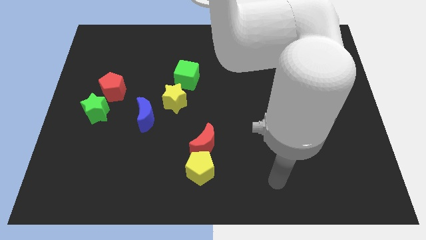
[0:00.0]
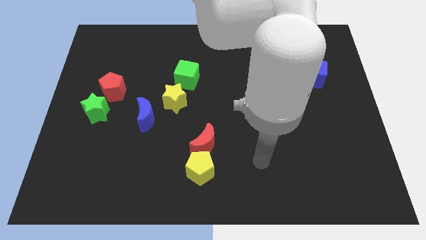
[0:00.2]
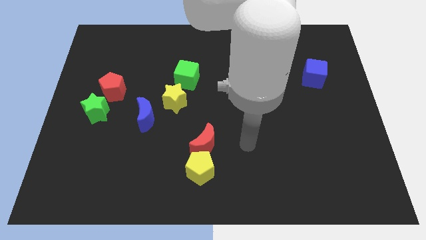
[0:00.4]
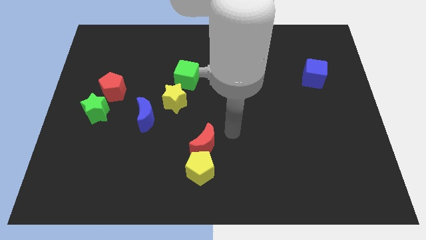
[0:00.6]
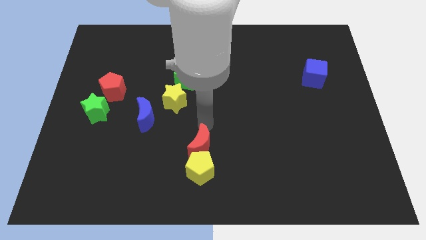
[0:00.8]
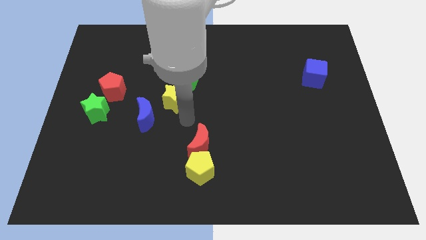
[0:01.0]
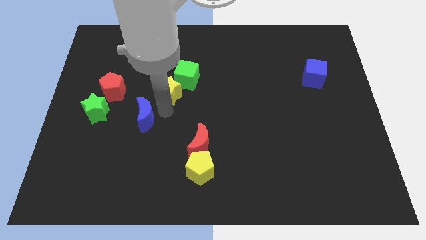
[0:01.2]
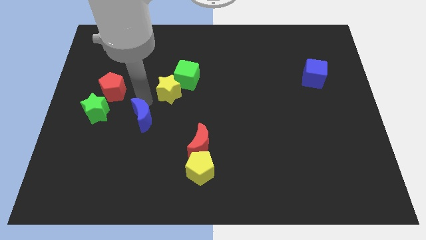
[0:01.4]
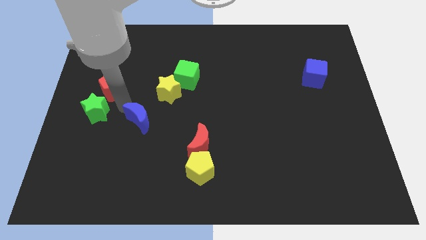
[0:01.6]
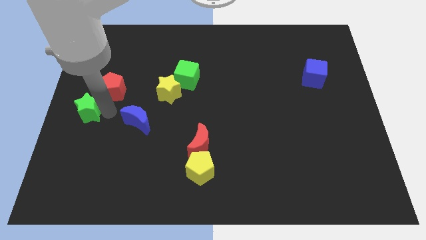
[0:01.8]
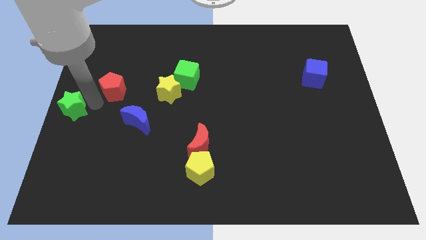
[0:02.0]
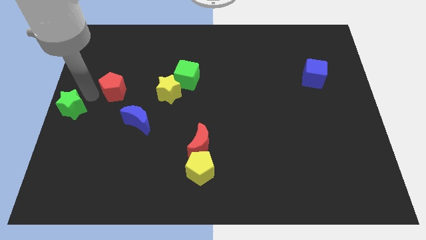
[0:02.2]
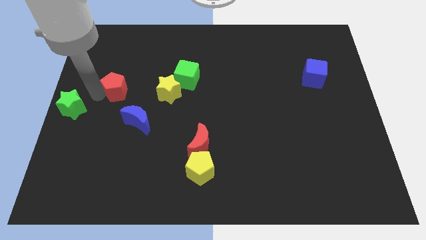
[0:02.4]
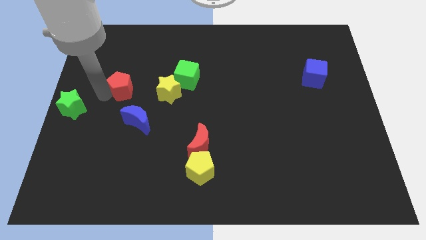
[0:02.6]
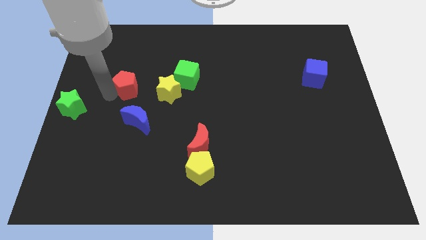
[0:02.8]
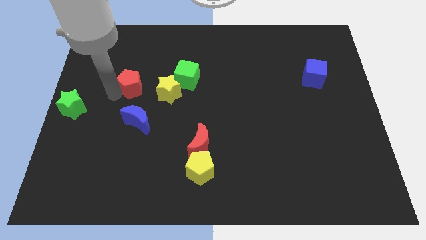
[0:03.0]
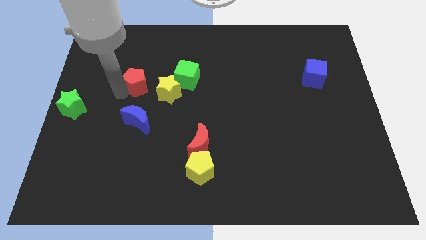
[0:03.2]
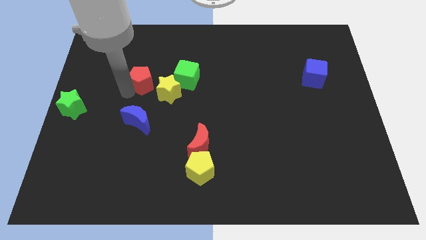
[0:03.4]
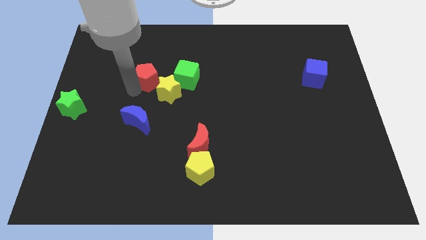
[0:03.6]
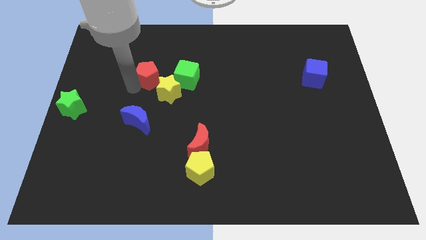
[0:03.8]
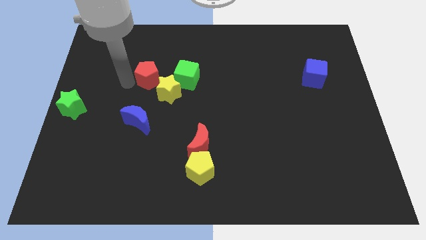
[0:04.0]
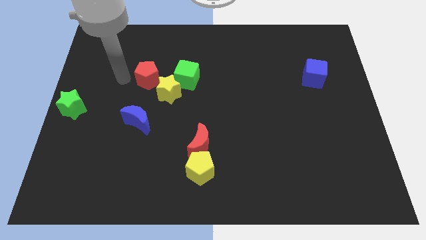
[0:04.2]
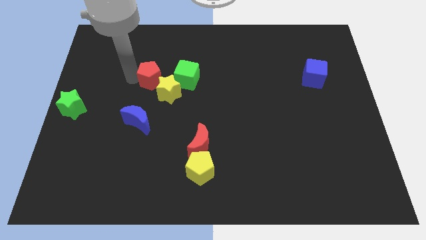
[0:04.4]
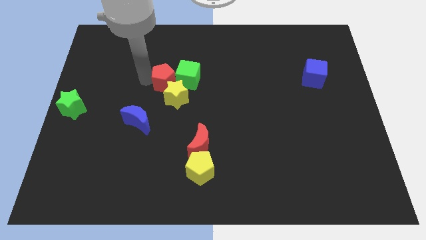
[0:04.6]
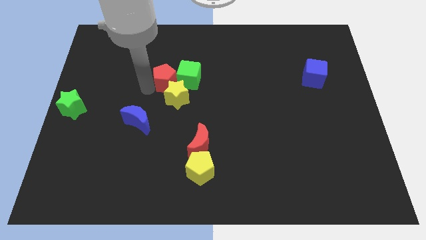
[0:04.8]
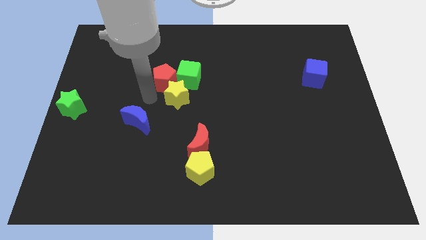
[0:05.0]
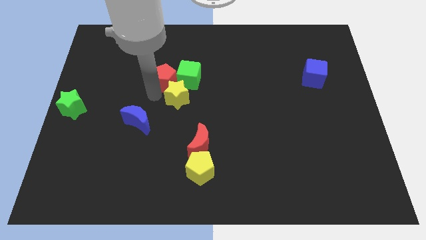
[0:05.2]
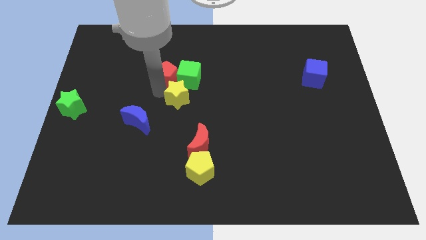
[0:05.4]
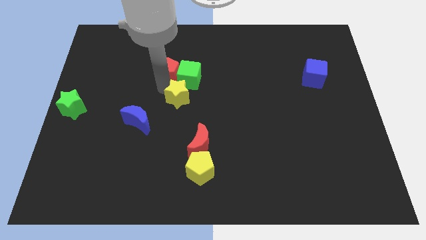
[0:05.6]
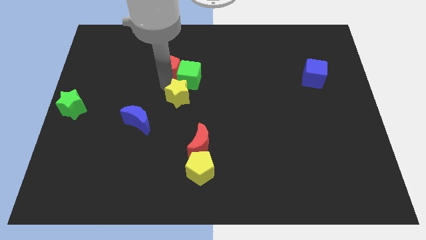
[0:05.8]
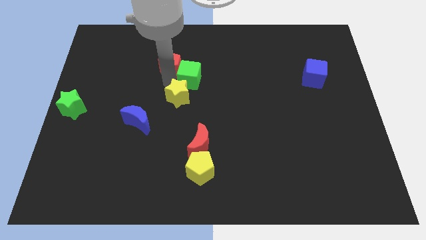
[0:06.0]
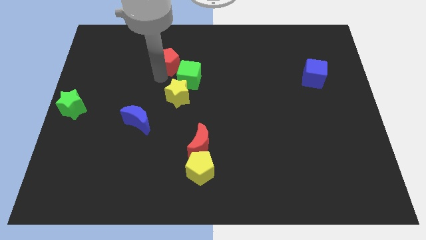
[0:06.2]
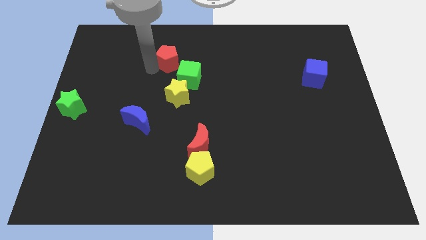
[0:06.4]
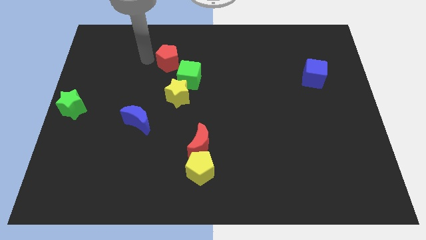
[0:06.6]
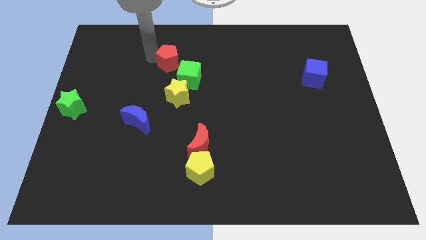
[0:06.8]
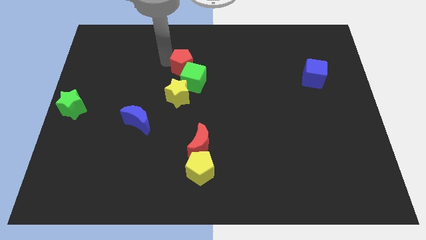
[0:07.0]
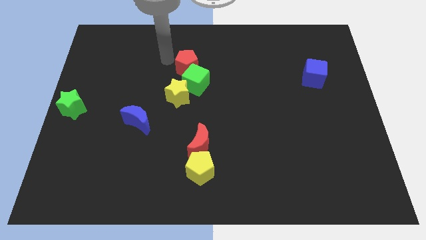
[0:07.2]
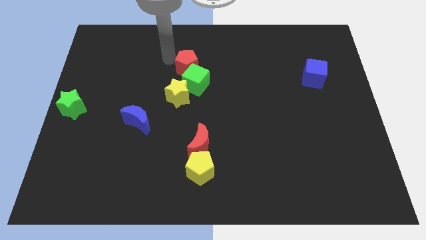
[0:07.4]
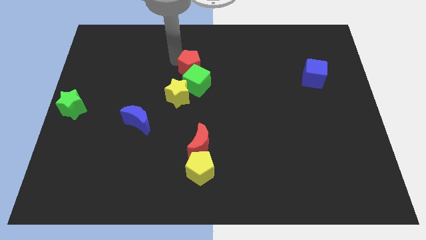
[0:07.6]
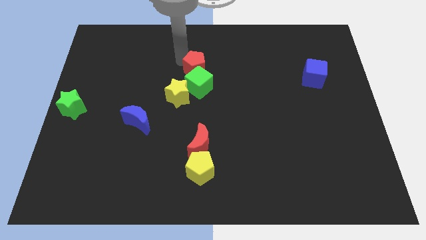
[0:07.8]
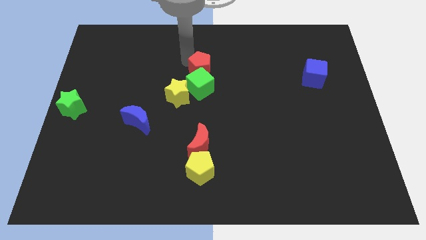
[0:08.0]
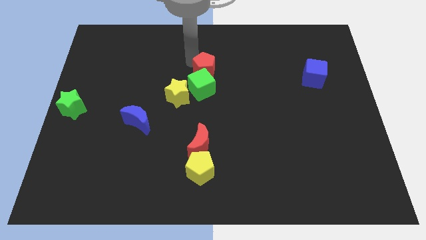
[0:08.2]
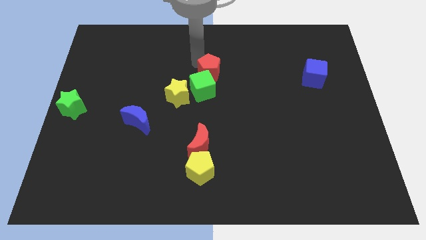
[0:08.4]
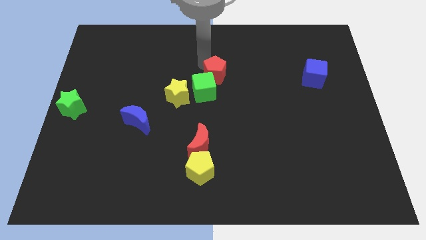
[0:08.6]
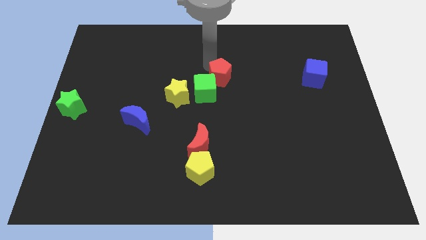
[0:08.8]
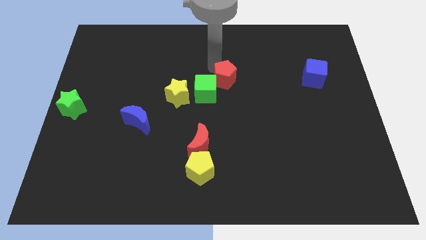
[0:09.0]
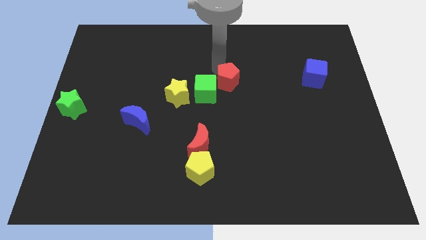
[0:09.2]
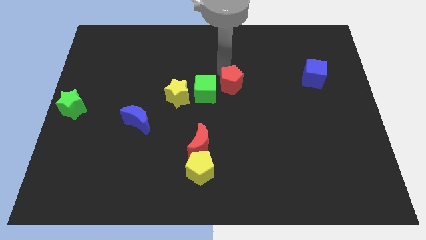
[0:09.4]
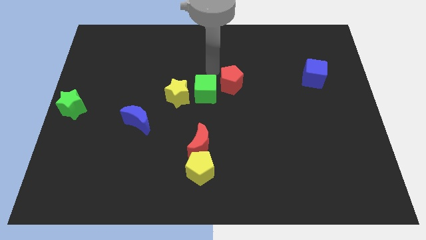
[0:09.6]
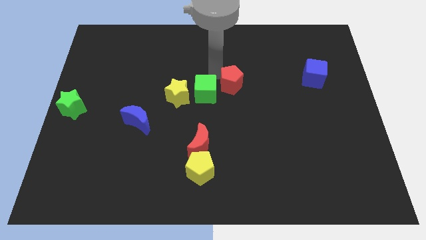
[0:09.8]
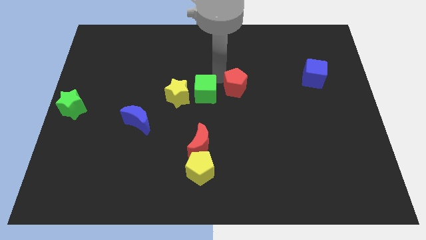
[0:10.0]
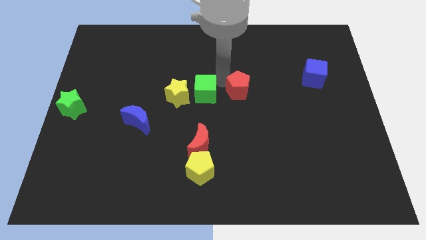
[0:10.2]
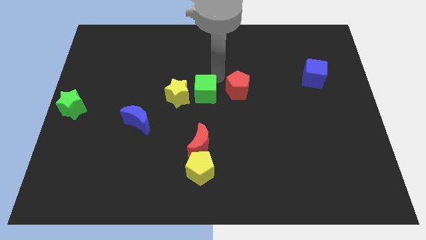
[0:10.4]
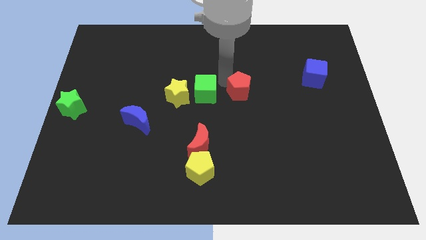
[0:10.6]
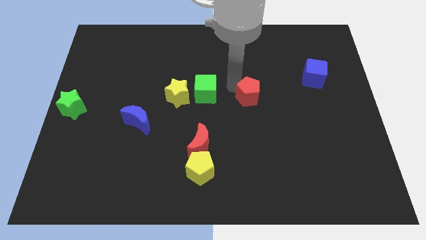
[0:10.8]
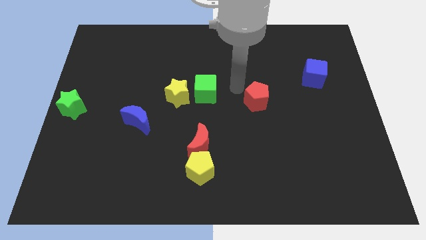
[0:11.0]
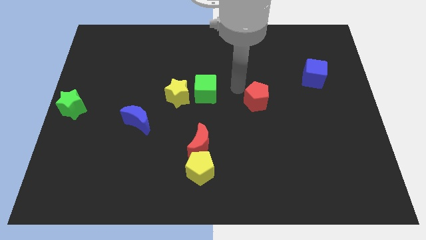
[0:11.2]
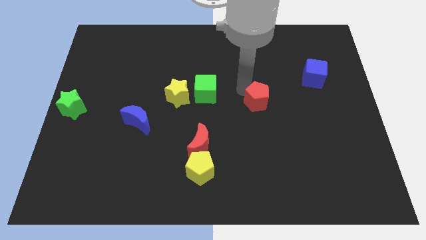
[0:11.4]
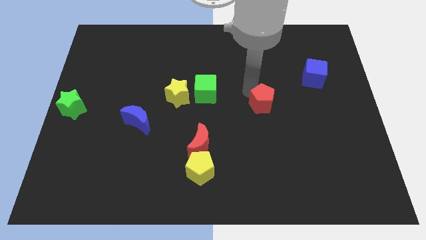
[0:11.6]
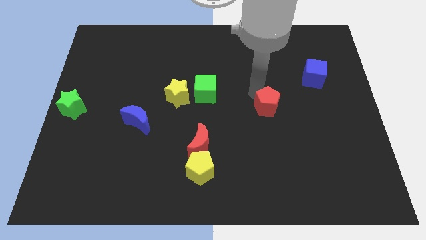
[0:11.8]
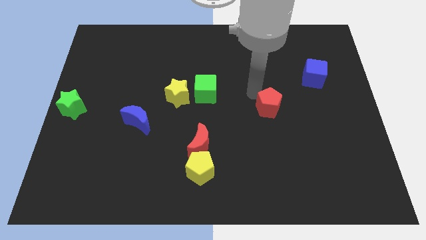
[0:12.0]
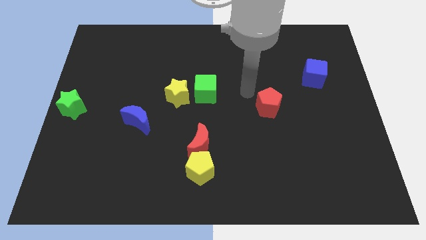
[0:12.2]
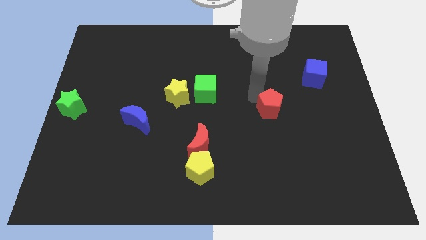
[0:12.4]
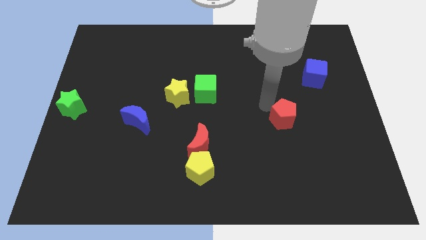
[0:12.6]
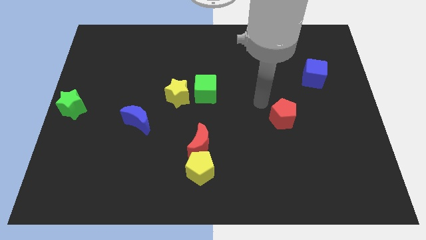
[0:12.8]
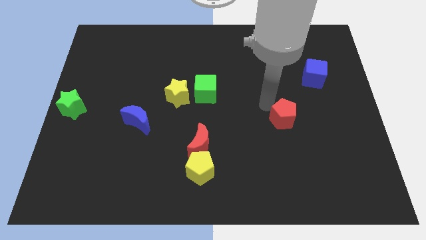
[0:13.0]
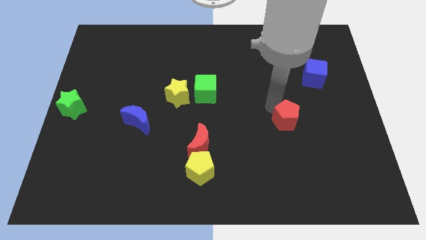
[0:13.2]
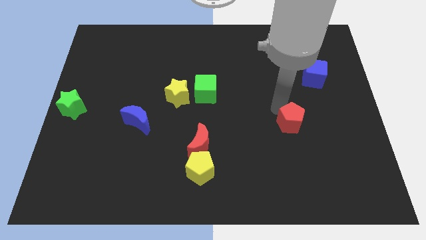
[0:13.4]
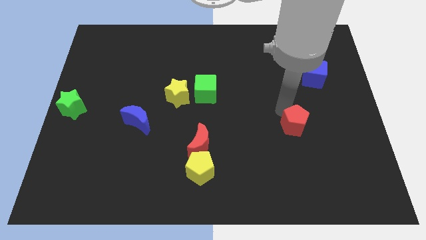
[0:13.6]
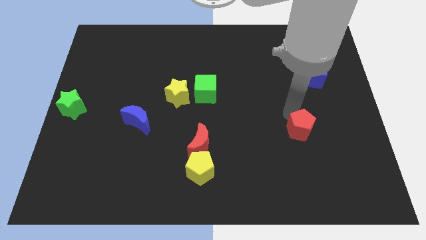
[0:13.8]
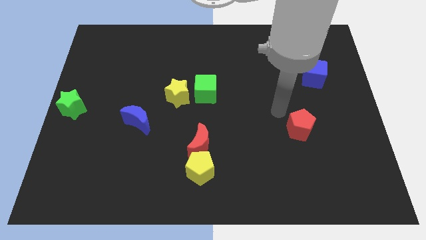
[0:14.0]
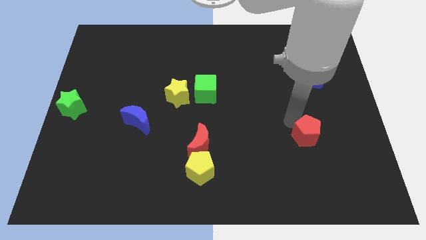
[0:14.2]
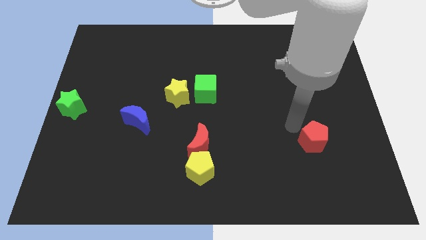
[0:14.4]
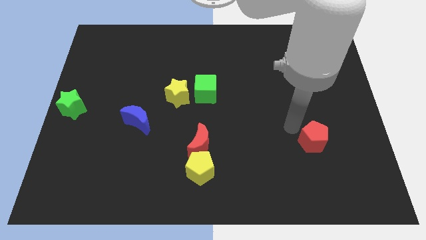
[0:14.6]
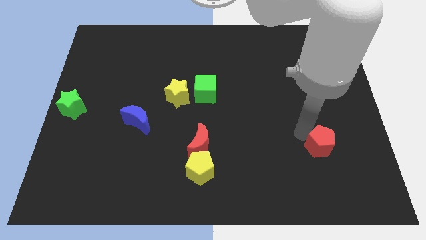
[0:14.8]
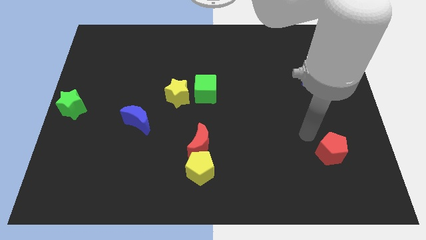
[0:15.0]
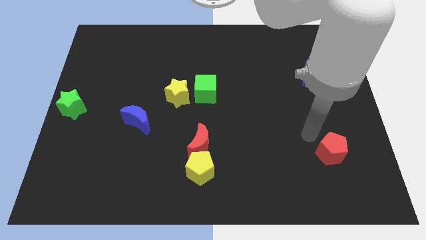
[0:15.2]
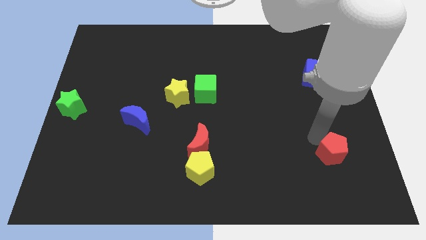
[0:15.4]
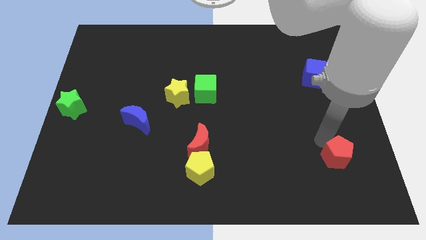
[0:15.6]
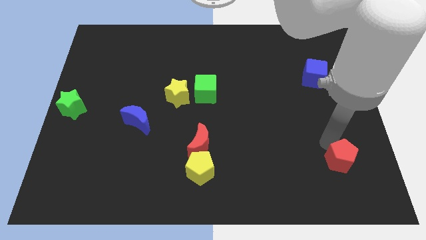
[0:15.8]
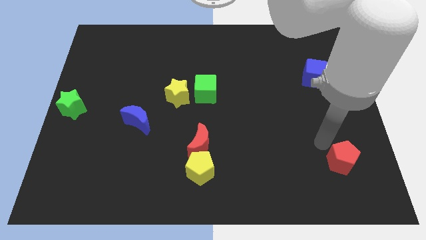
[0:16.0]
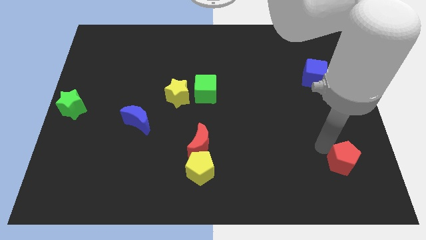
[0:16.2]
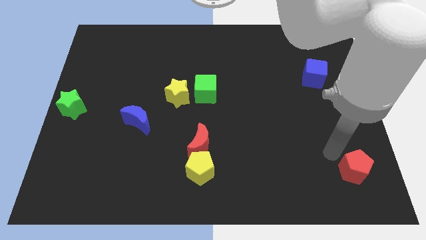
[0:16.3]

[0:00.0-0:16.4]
push the red pentagon to the bottom right corner
